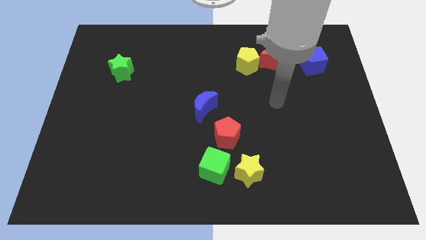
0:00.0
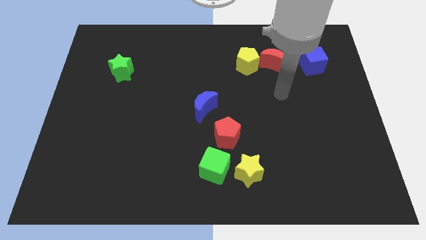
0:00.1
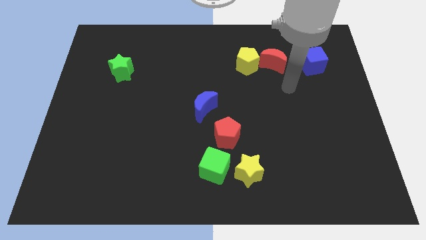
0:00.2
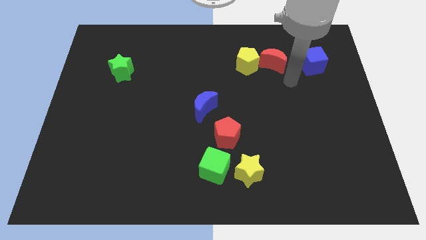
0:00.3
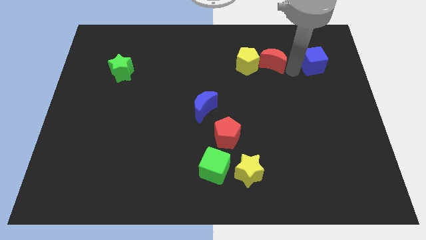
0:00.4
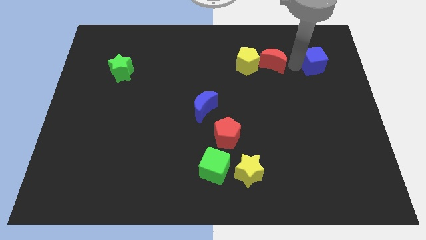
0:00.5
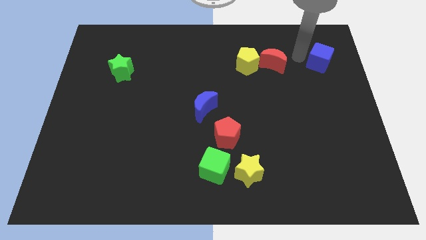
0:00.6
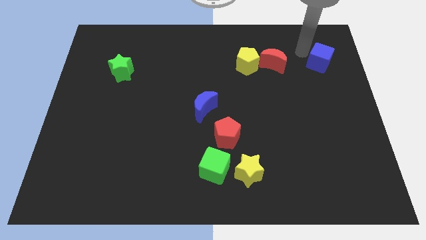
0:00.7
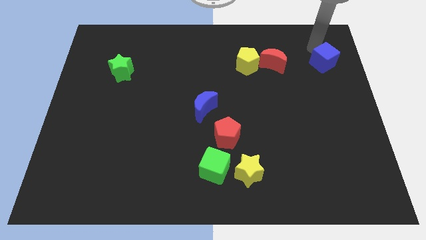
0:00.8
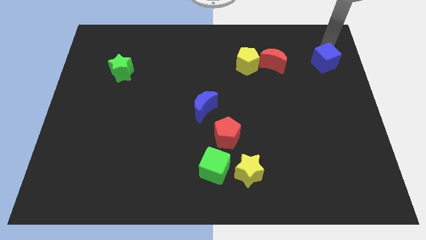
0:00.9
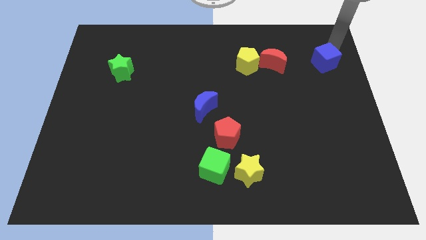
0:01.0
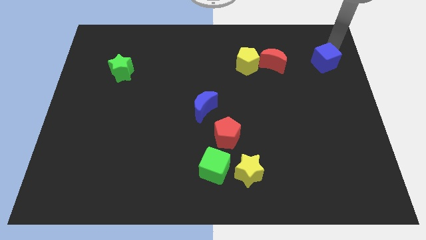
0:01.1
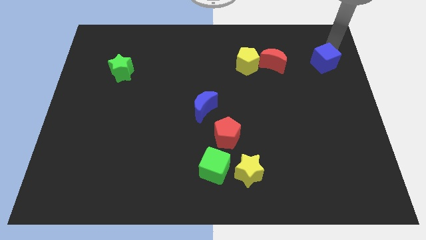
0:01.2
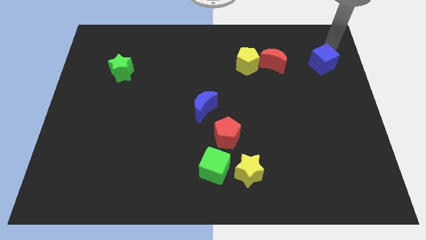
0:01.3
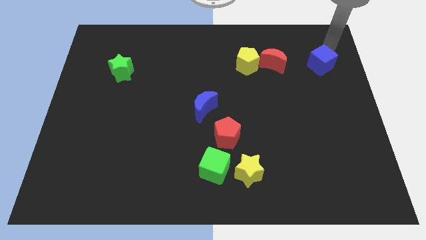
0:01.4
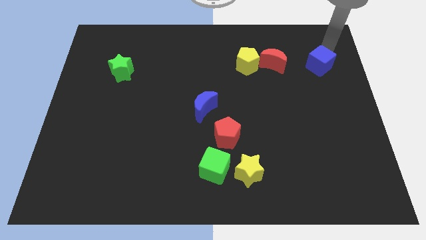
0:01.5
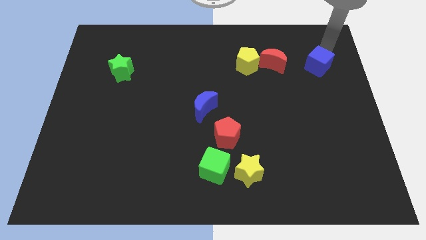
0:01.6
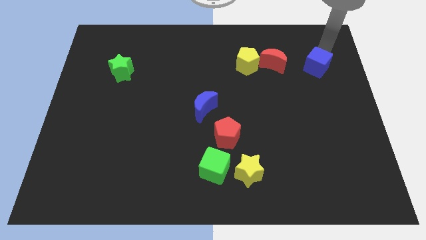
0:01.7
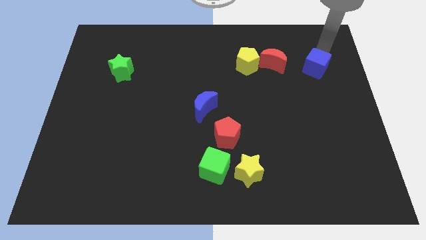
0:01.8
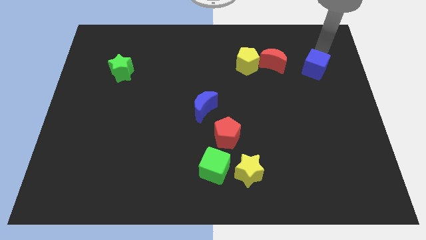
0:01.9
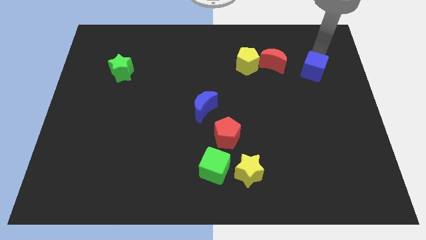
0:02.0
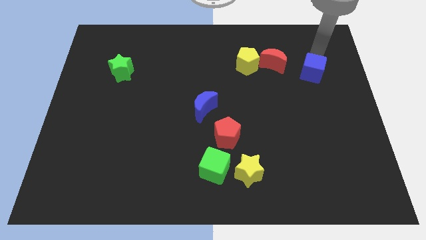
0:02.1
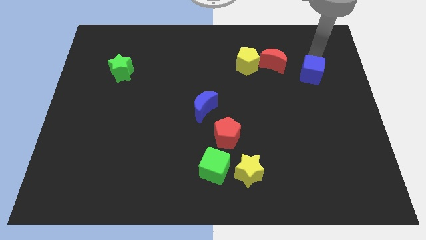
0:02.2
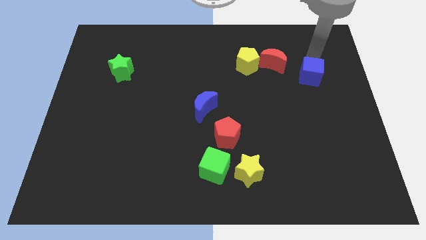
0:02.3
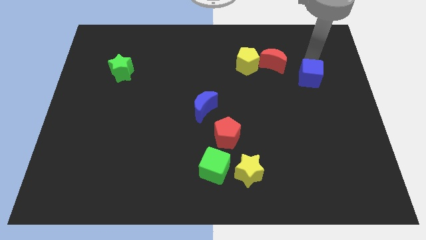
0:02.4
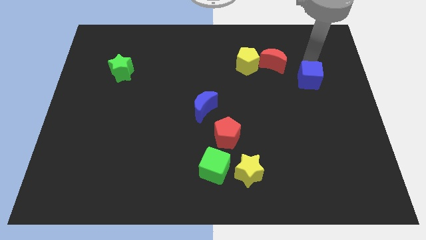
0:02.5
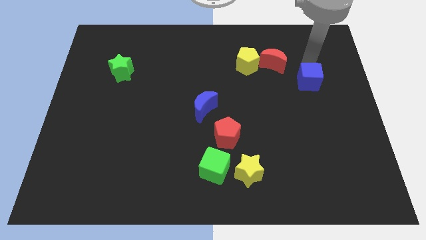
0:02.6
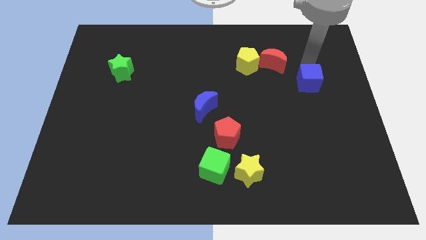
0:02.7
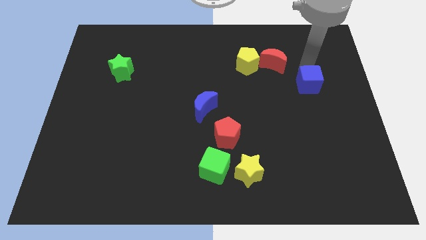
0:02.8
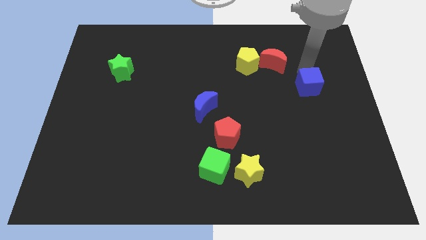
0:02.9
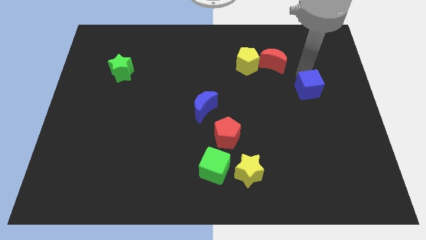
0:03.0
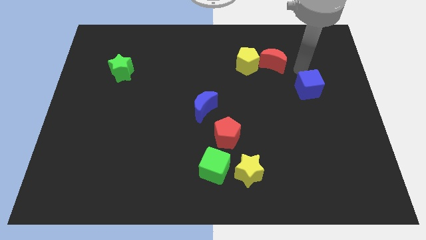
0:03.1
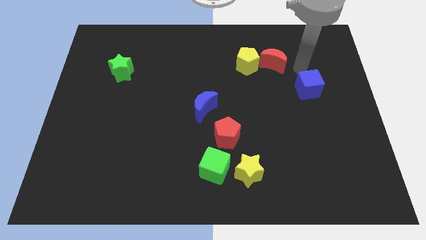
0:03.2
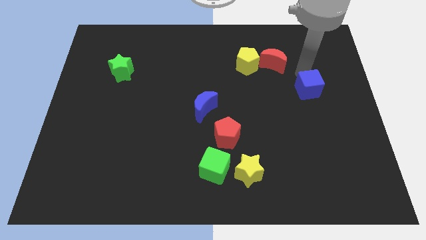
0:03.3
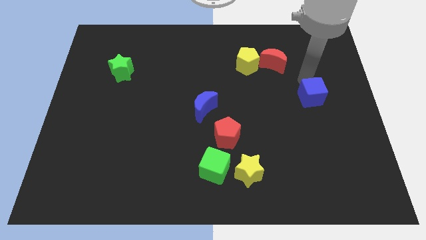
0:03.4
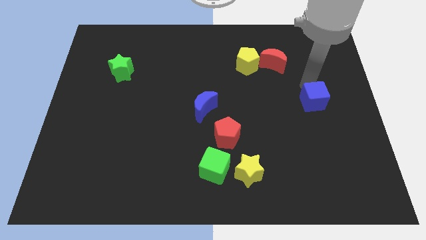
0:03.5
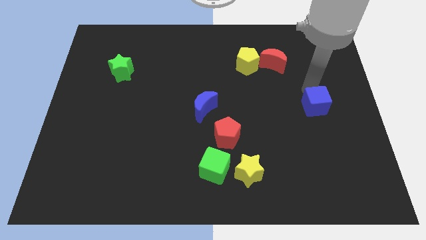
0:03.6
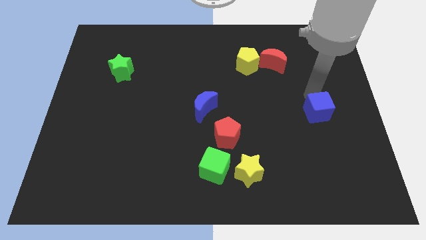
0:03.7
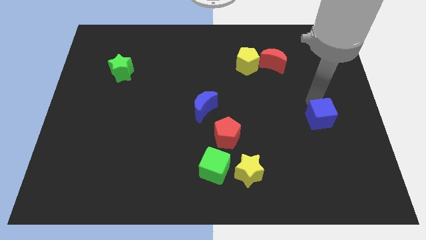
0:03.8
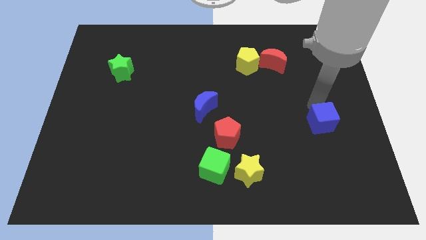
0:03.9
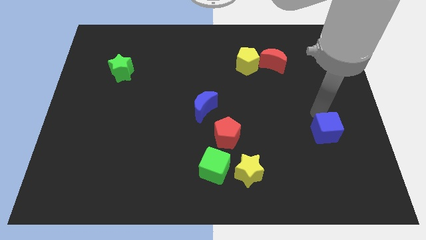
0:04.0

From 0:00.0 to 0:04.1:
move the blue cube downwards

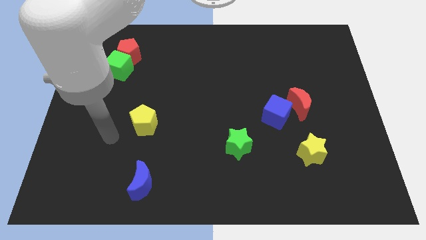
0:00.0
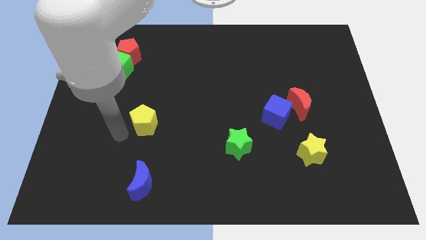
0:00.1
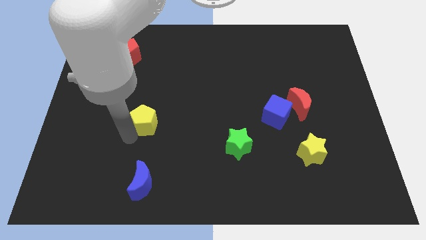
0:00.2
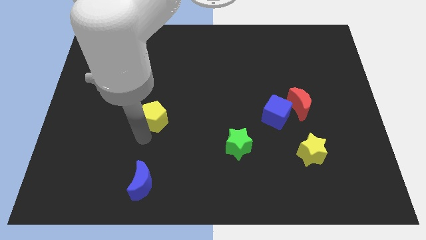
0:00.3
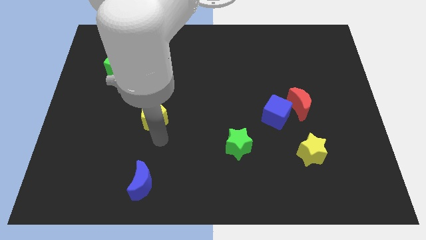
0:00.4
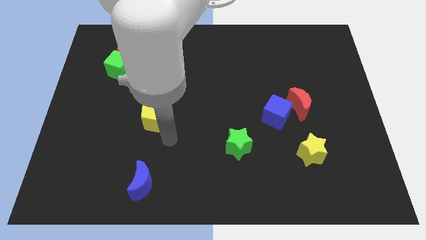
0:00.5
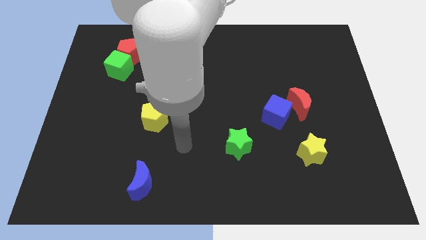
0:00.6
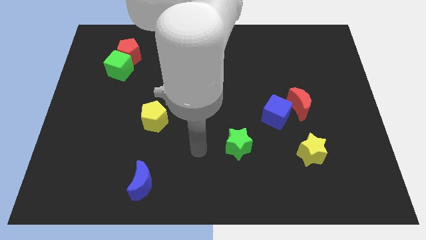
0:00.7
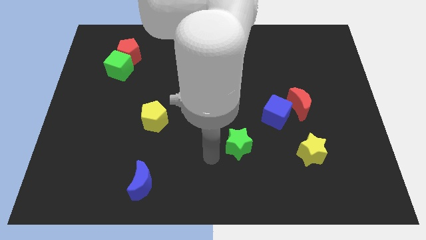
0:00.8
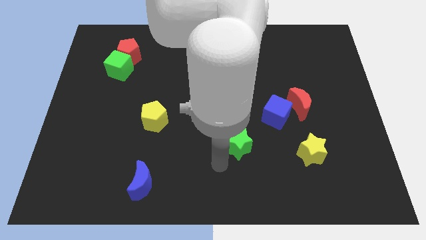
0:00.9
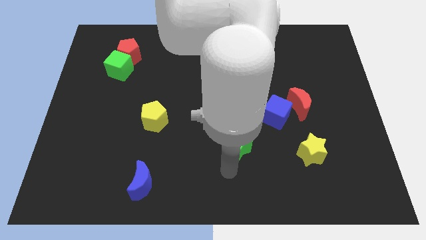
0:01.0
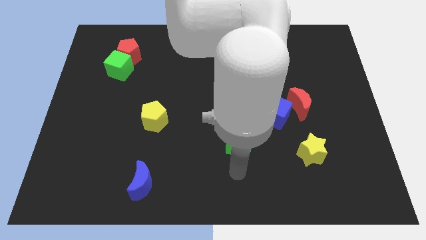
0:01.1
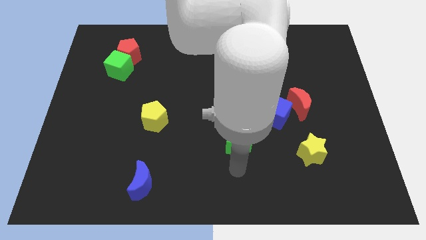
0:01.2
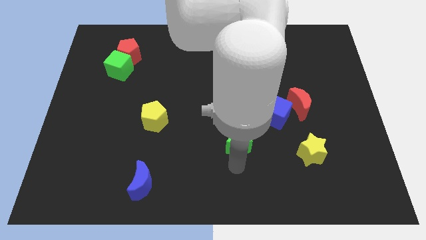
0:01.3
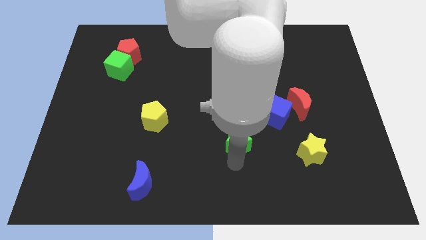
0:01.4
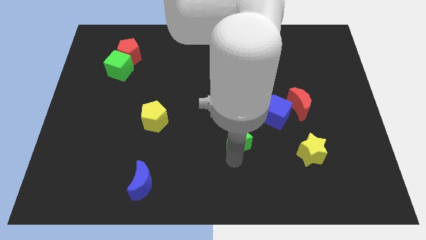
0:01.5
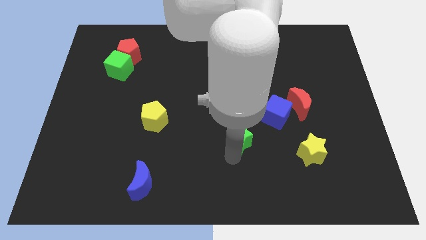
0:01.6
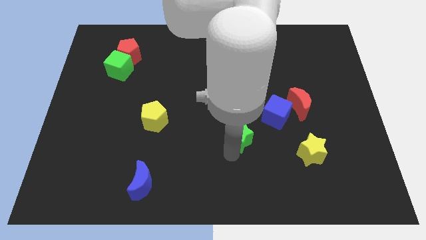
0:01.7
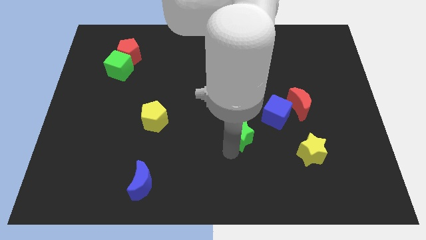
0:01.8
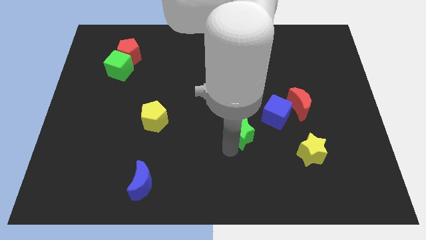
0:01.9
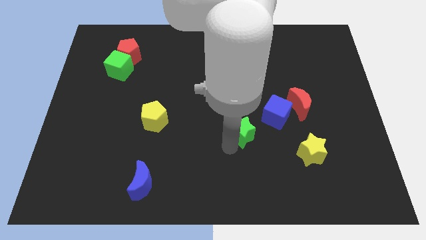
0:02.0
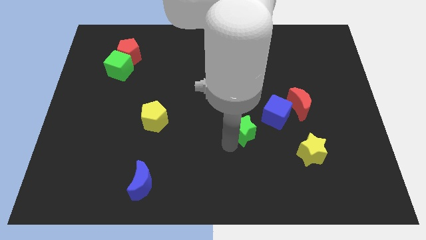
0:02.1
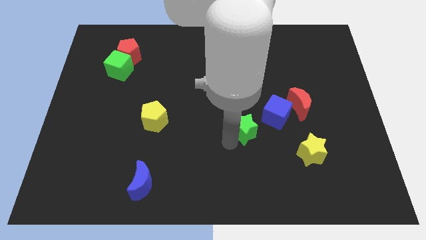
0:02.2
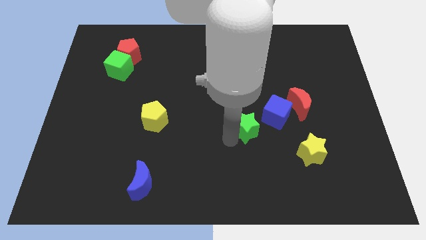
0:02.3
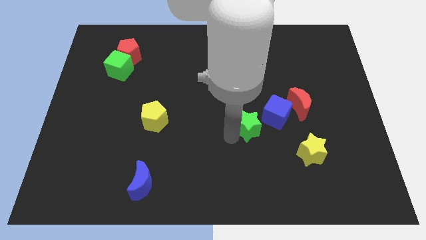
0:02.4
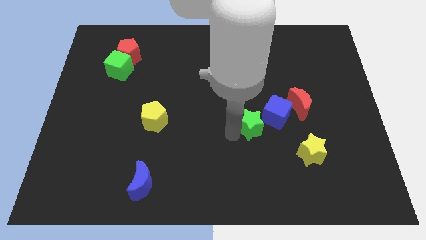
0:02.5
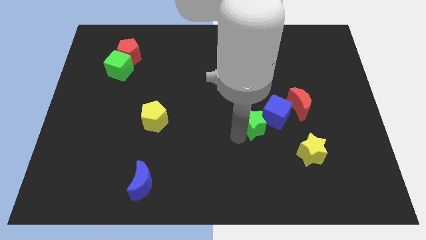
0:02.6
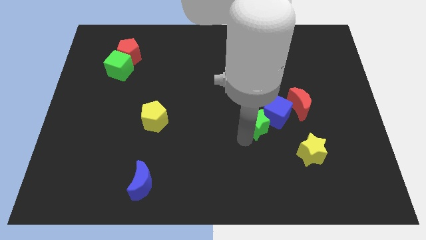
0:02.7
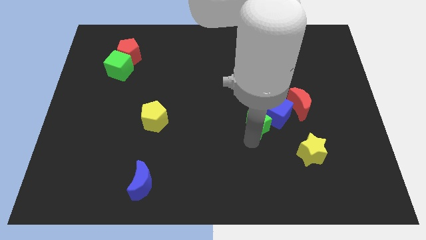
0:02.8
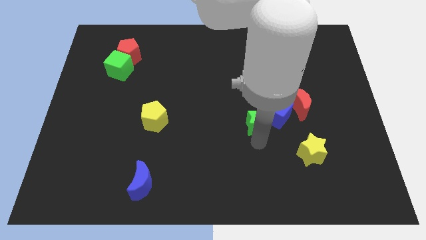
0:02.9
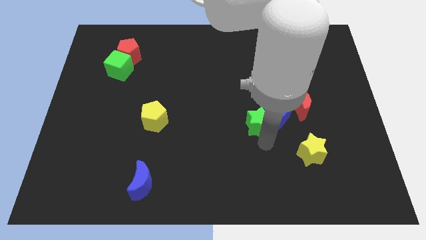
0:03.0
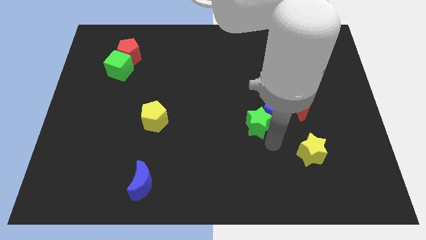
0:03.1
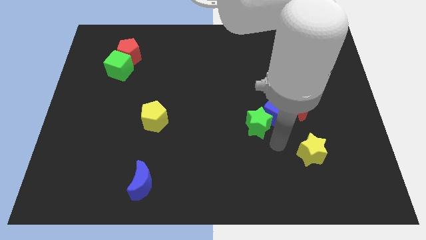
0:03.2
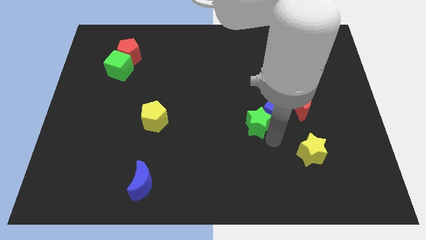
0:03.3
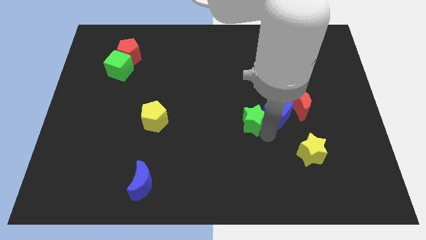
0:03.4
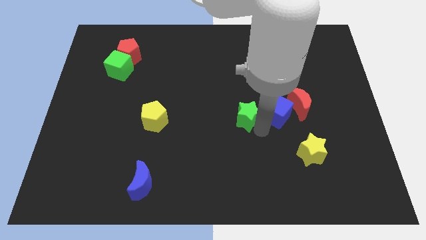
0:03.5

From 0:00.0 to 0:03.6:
move the green star up slightly

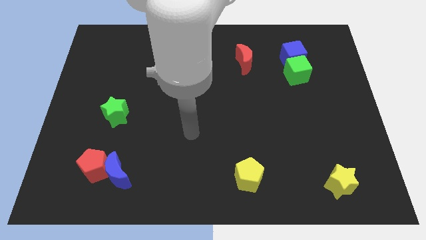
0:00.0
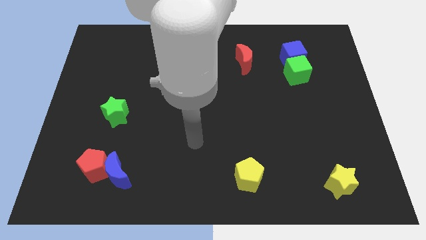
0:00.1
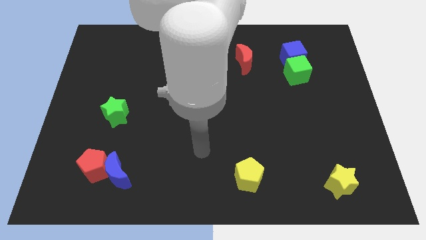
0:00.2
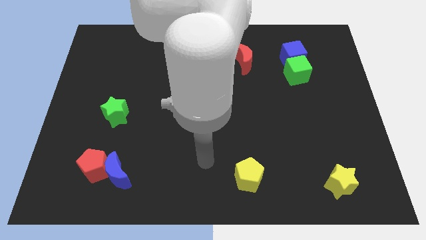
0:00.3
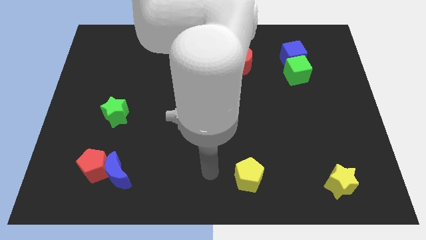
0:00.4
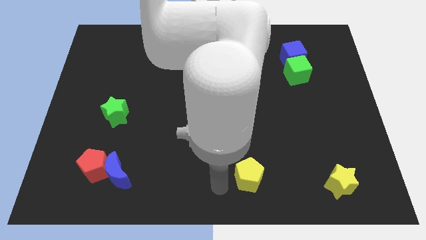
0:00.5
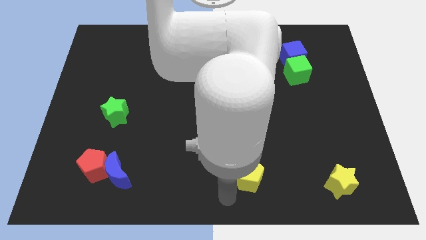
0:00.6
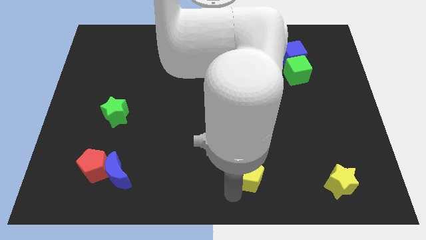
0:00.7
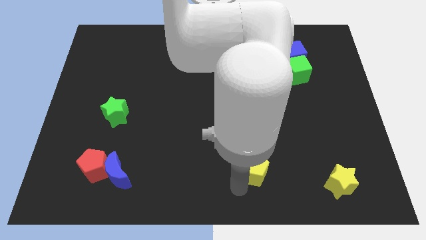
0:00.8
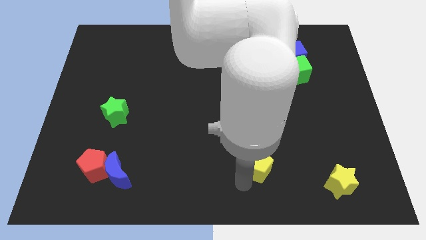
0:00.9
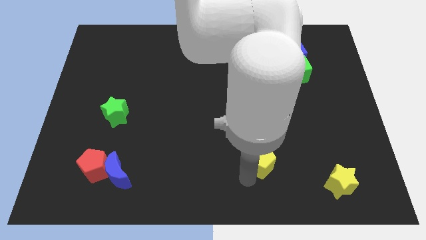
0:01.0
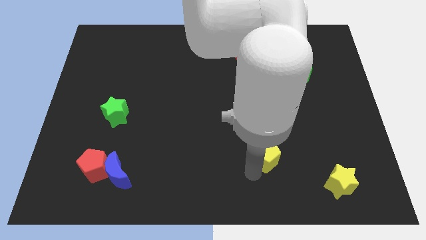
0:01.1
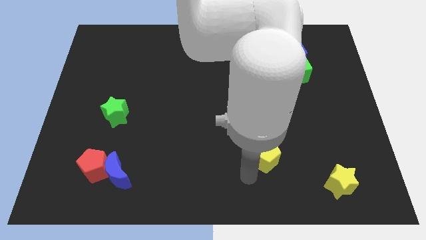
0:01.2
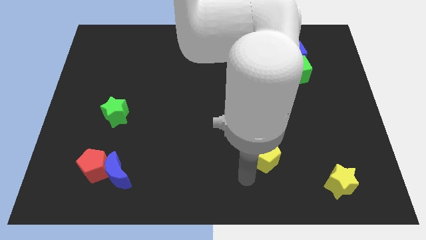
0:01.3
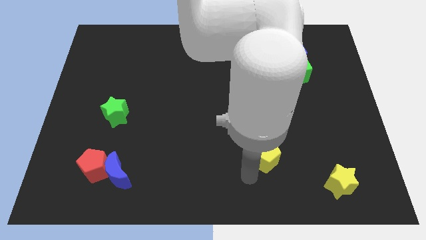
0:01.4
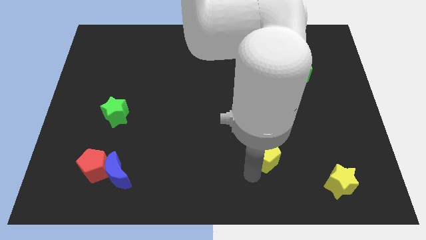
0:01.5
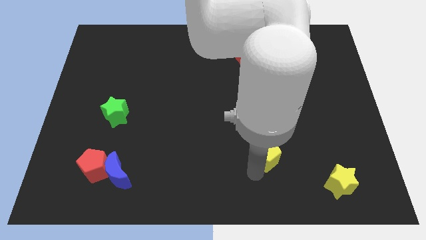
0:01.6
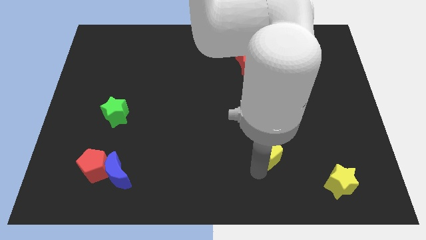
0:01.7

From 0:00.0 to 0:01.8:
slide the yellow pentagon diagonally up and right a little bit
